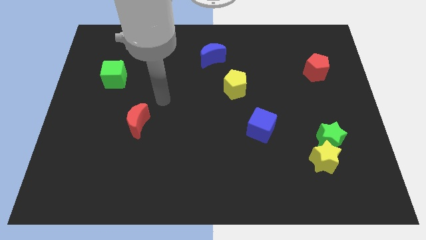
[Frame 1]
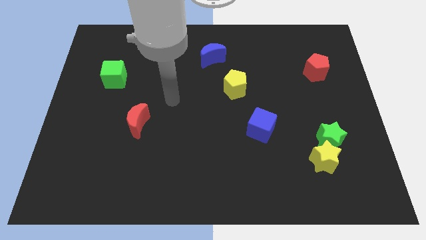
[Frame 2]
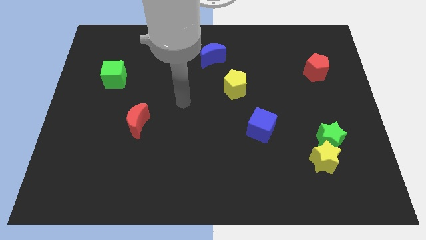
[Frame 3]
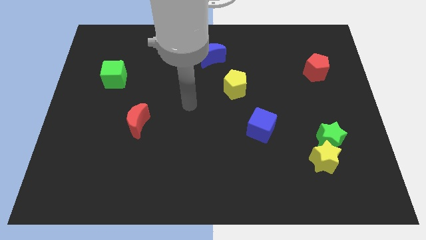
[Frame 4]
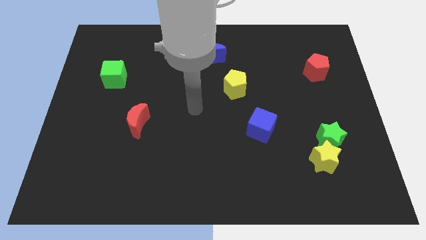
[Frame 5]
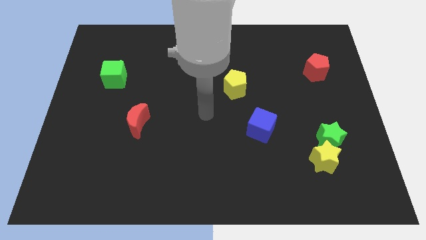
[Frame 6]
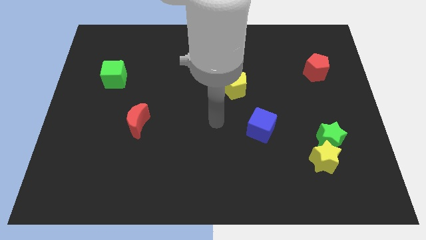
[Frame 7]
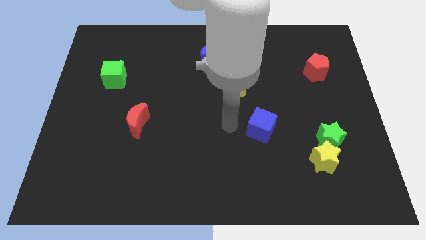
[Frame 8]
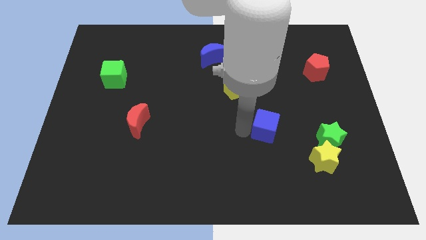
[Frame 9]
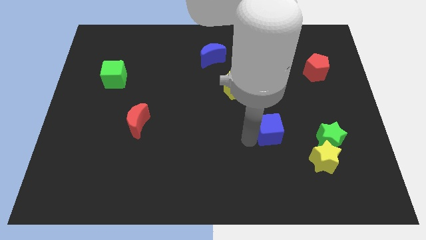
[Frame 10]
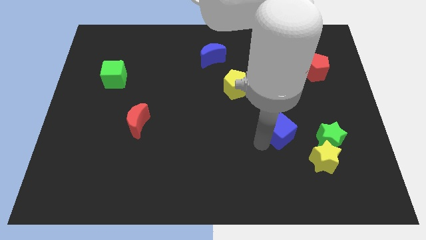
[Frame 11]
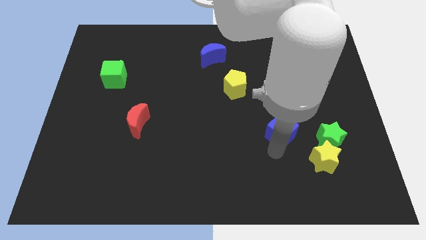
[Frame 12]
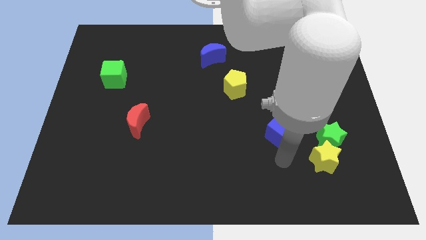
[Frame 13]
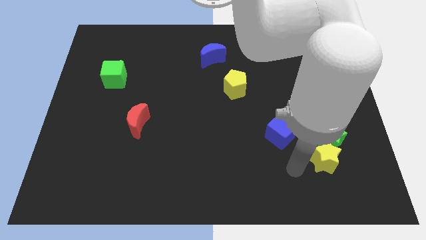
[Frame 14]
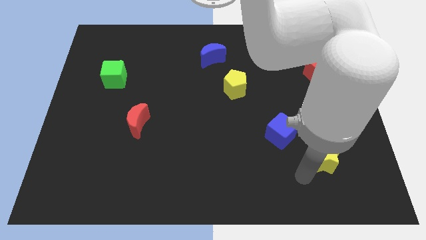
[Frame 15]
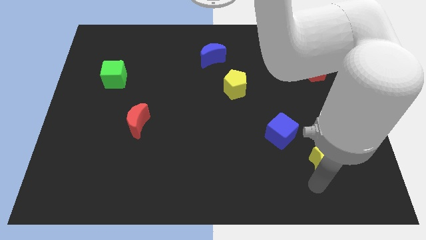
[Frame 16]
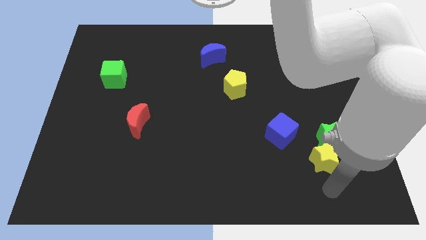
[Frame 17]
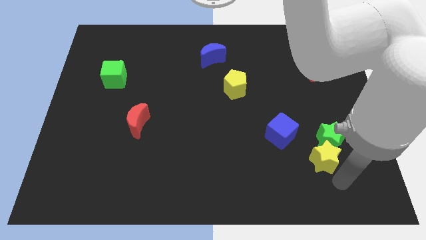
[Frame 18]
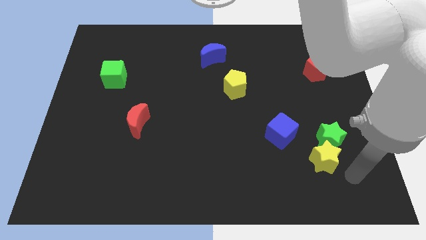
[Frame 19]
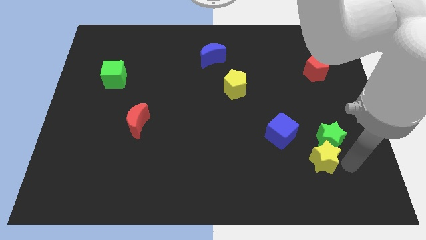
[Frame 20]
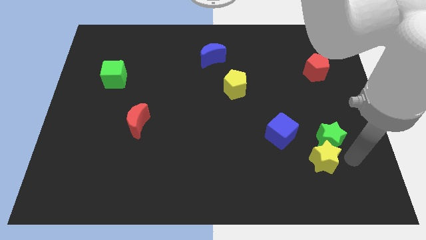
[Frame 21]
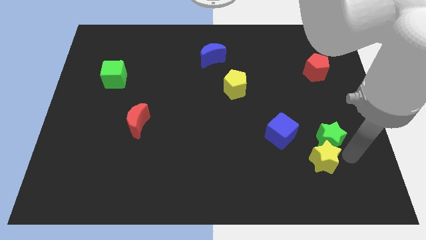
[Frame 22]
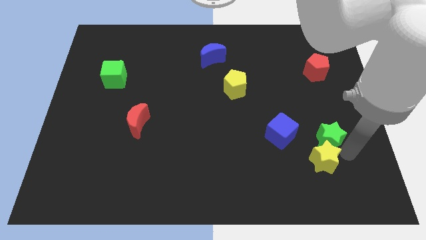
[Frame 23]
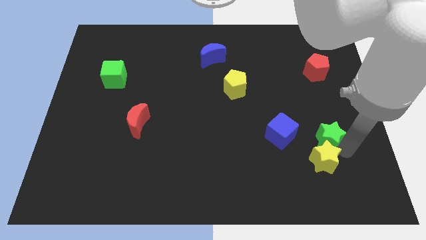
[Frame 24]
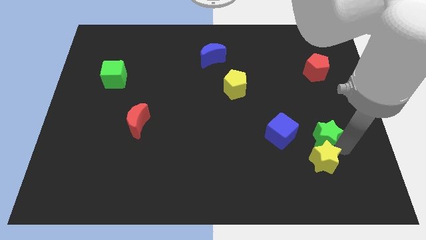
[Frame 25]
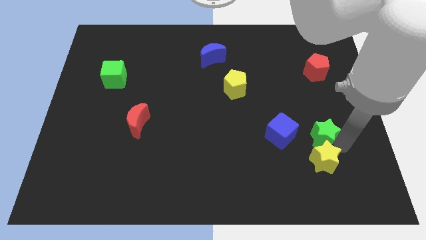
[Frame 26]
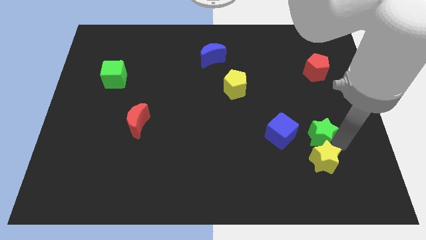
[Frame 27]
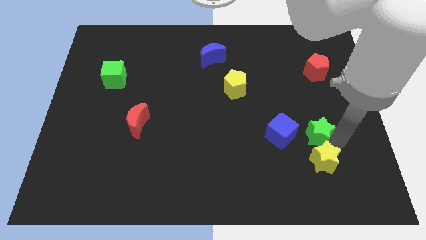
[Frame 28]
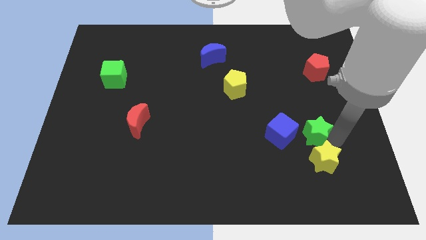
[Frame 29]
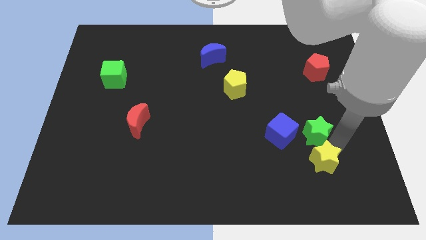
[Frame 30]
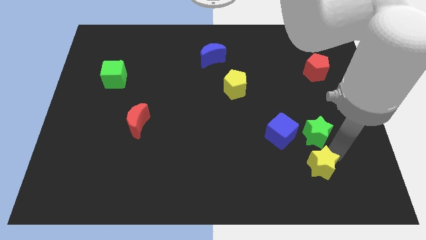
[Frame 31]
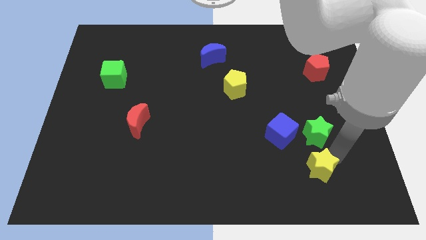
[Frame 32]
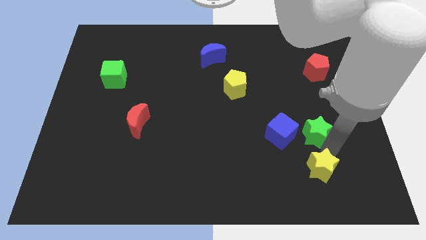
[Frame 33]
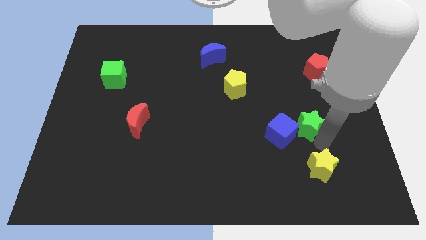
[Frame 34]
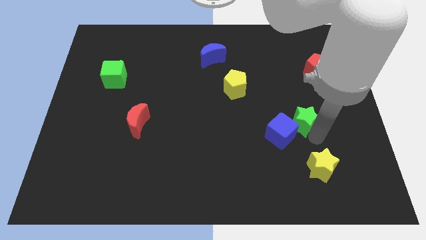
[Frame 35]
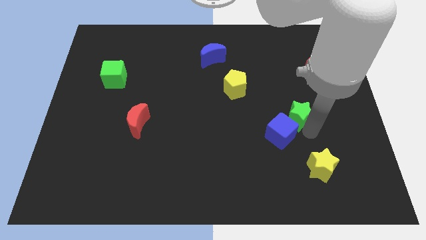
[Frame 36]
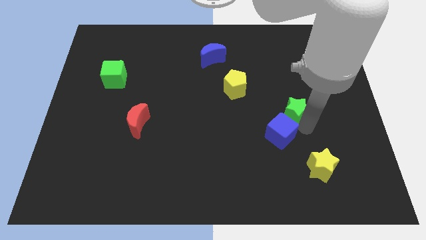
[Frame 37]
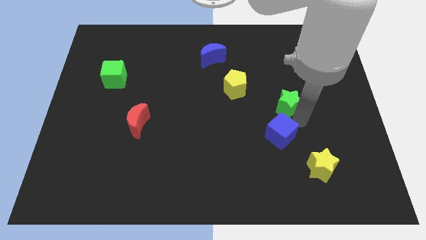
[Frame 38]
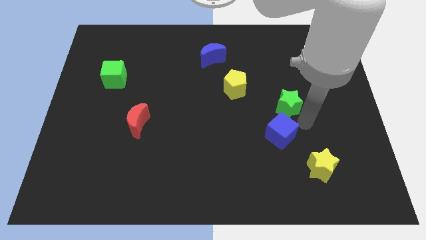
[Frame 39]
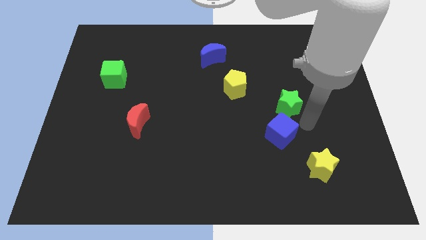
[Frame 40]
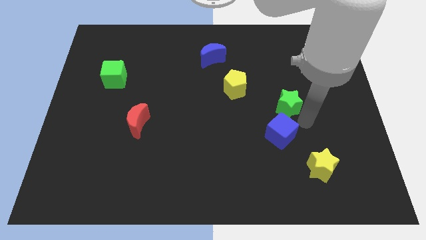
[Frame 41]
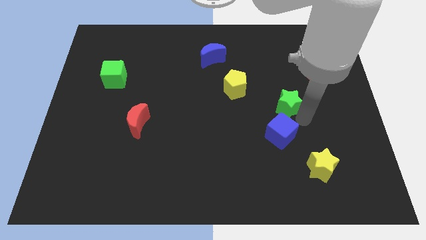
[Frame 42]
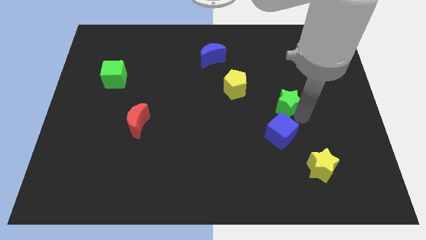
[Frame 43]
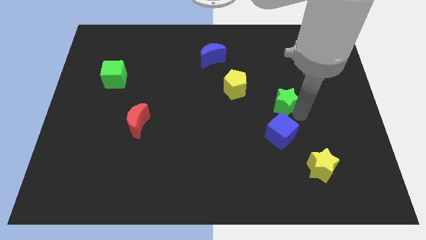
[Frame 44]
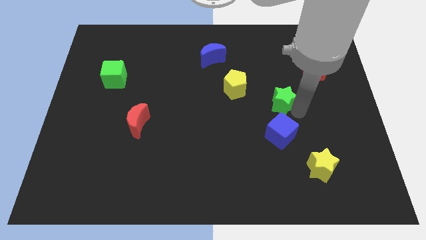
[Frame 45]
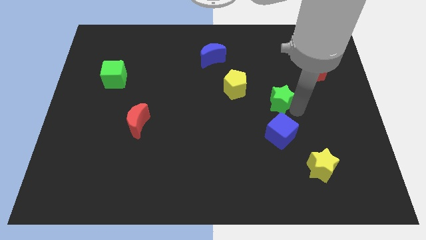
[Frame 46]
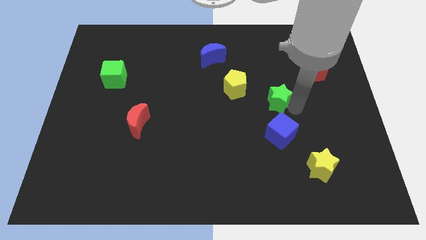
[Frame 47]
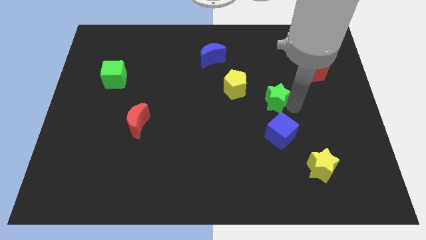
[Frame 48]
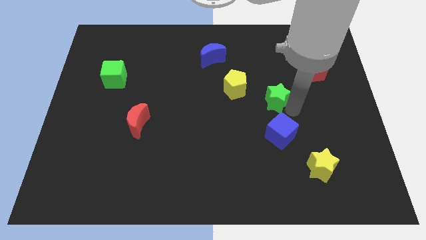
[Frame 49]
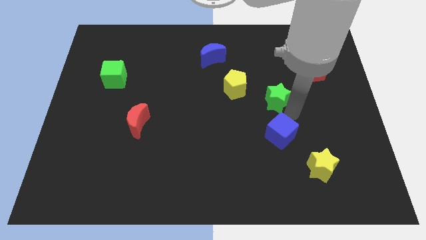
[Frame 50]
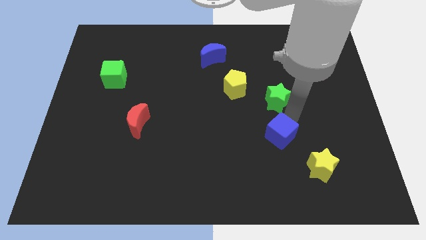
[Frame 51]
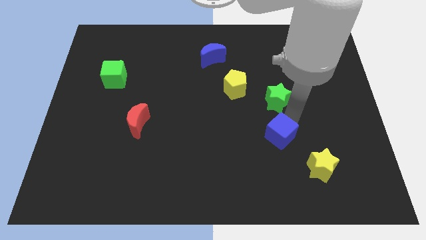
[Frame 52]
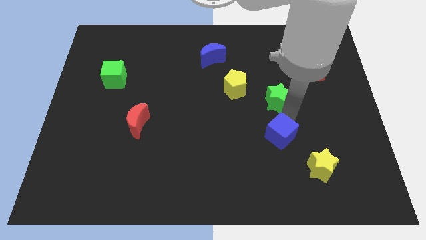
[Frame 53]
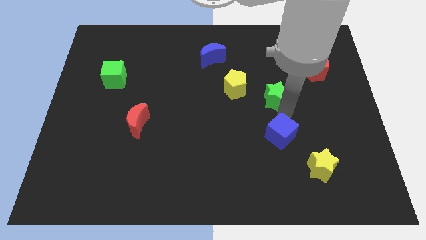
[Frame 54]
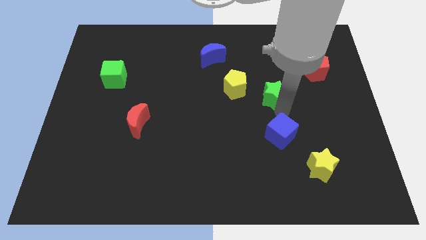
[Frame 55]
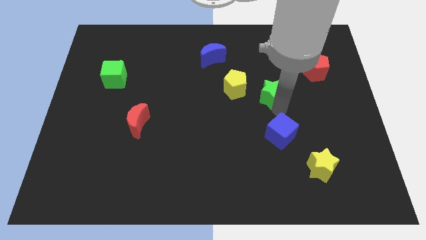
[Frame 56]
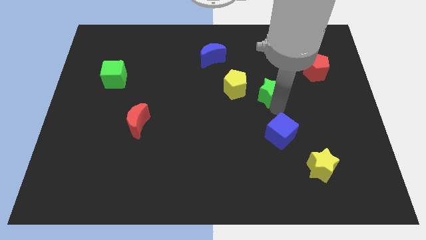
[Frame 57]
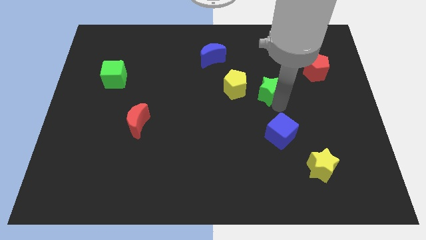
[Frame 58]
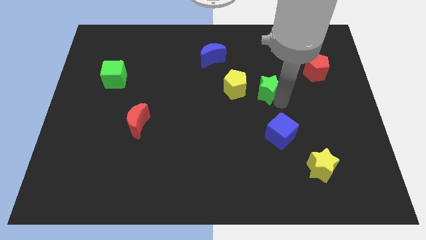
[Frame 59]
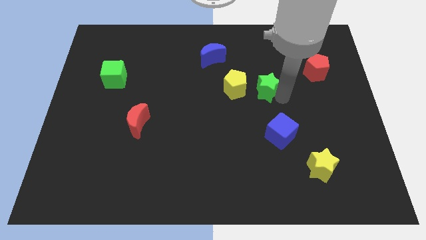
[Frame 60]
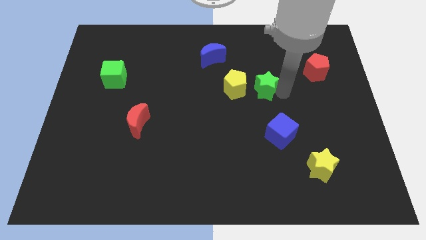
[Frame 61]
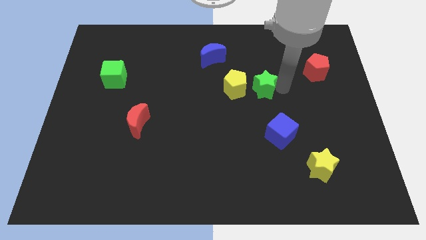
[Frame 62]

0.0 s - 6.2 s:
slide the green star to the center of the board

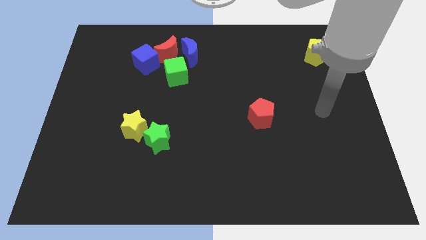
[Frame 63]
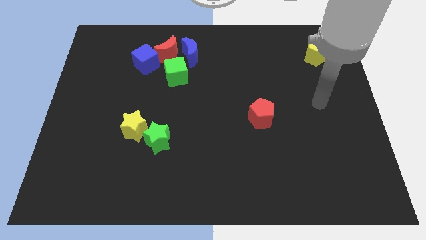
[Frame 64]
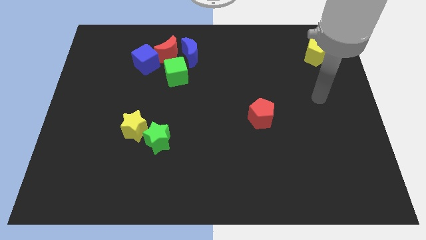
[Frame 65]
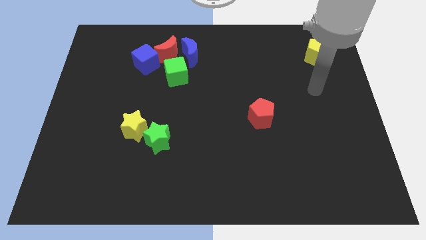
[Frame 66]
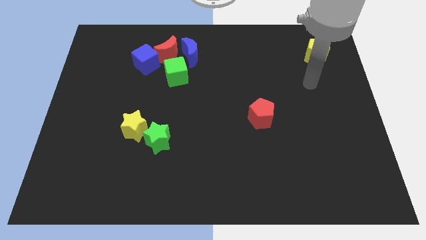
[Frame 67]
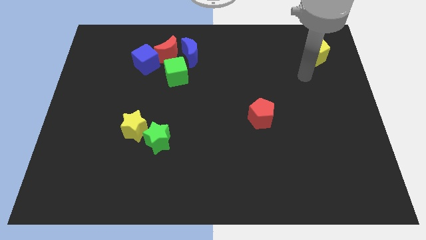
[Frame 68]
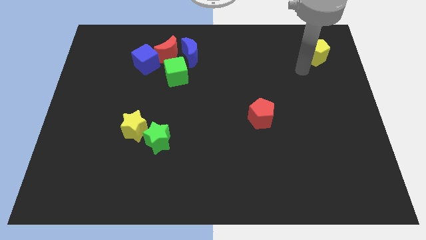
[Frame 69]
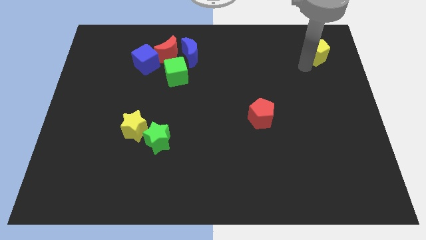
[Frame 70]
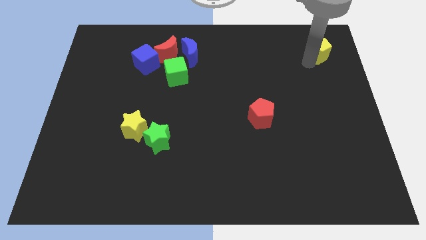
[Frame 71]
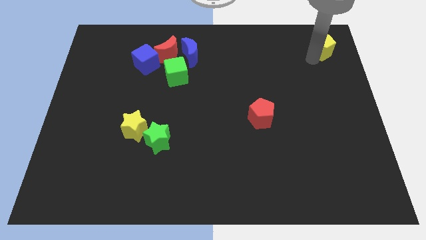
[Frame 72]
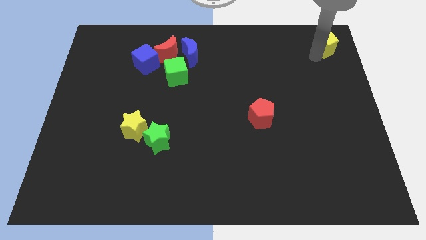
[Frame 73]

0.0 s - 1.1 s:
push the yellow pentagon to the upper right corner
